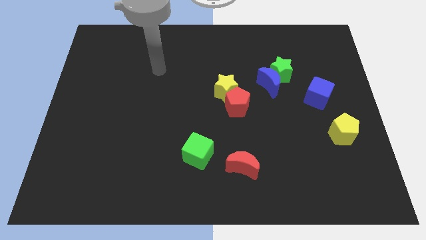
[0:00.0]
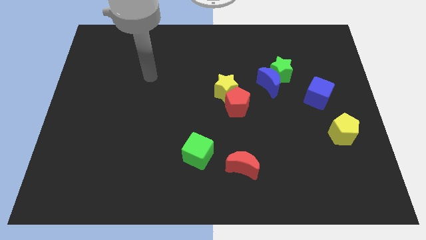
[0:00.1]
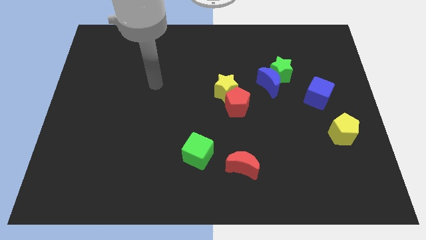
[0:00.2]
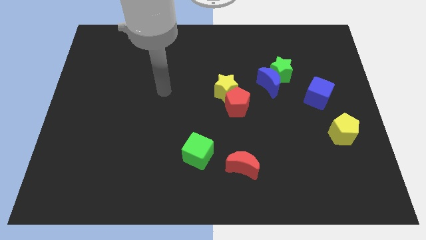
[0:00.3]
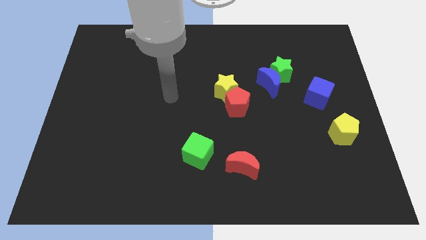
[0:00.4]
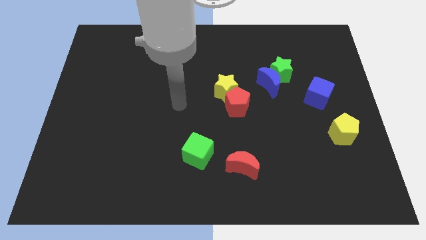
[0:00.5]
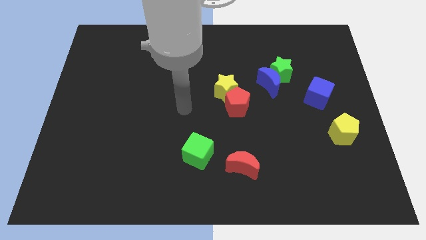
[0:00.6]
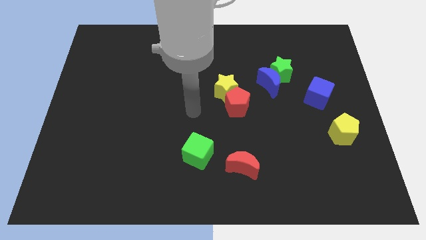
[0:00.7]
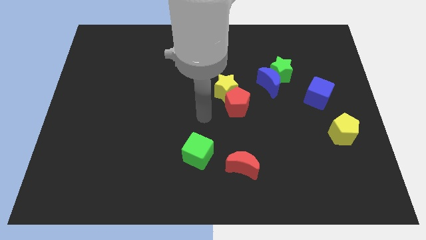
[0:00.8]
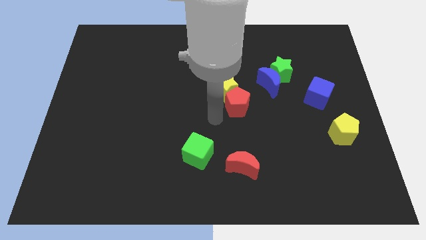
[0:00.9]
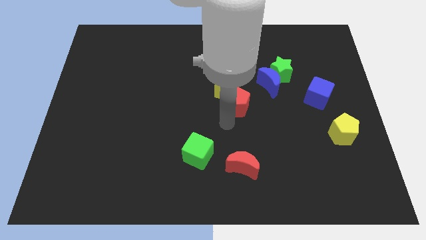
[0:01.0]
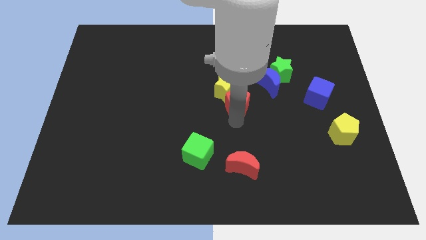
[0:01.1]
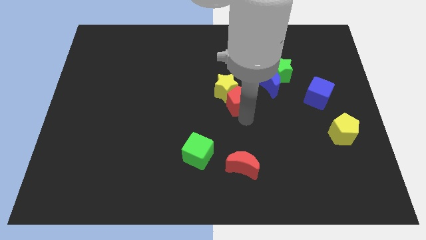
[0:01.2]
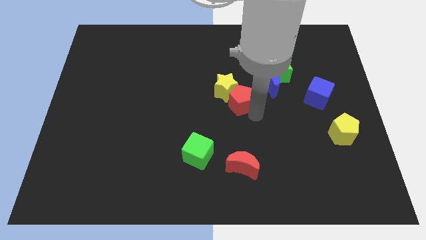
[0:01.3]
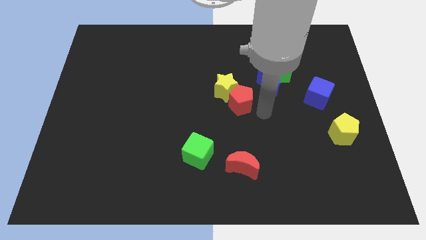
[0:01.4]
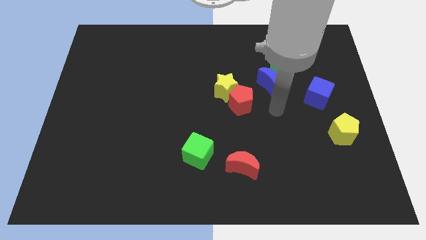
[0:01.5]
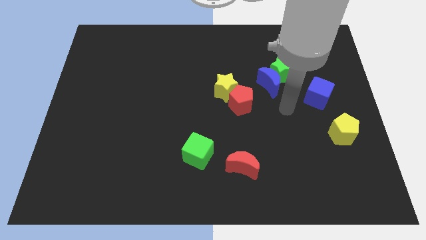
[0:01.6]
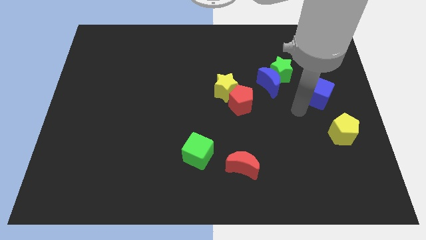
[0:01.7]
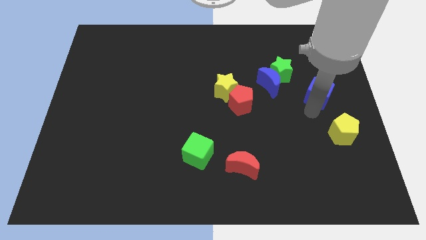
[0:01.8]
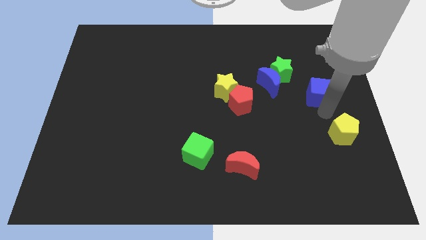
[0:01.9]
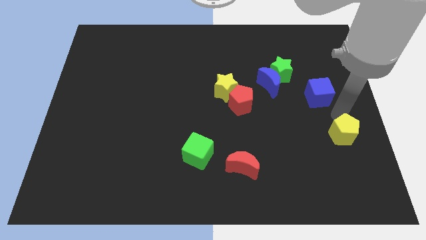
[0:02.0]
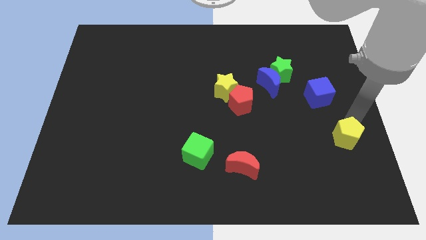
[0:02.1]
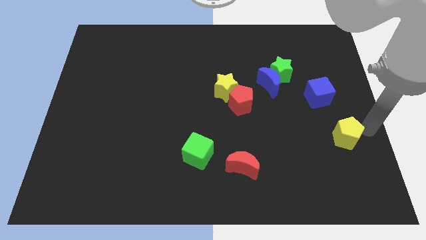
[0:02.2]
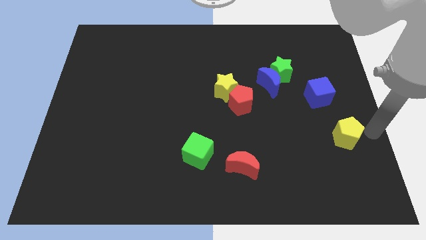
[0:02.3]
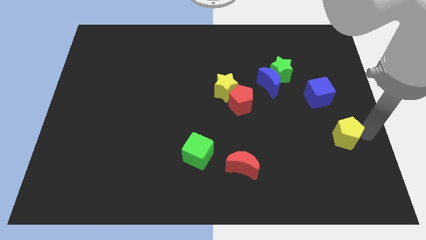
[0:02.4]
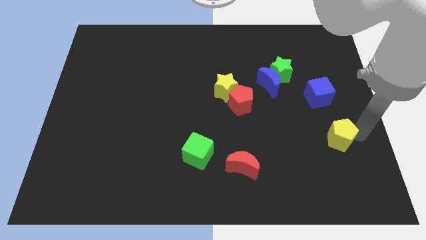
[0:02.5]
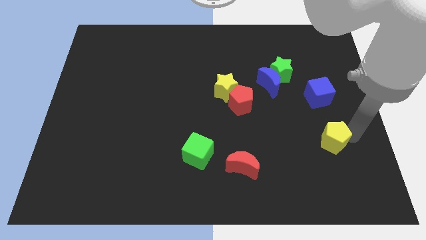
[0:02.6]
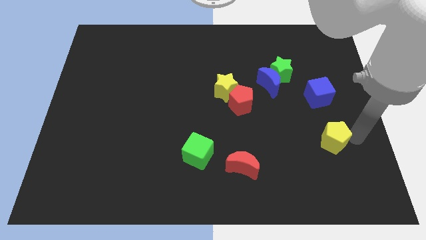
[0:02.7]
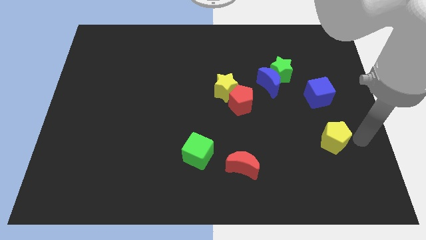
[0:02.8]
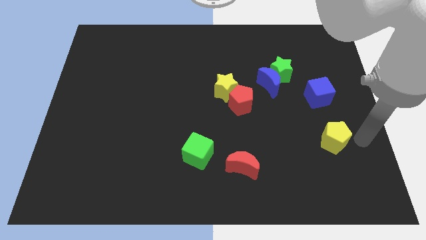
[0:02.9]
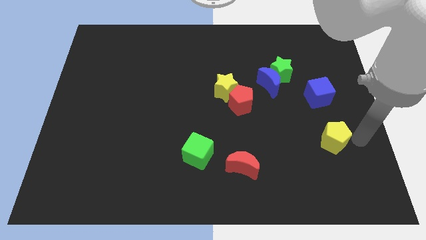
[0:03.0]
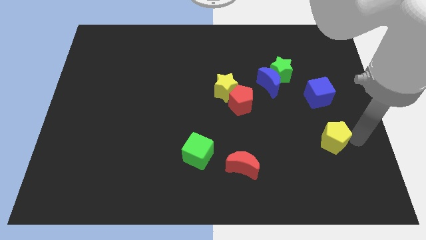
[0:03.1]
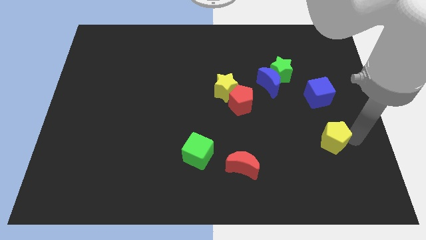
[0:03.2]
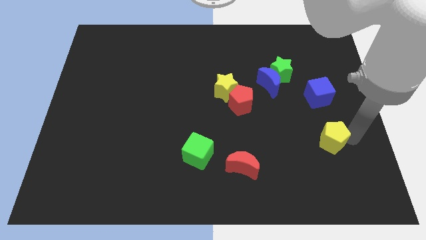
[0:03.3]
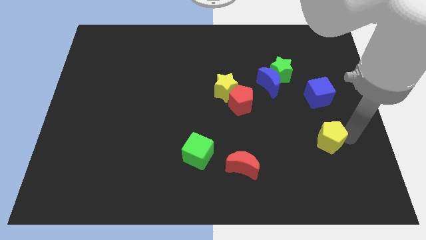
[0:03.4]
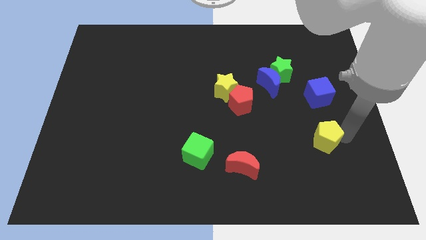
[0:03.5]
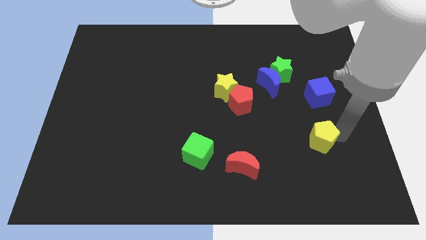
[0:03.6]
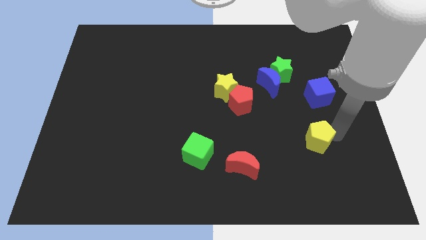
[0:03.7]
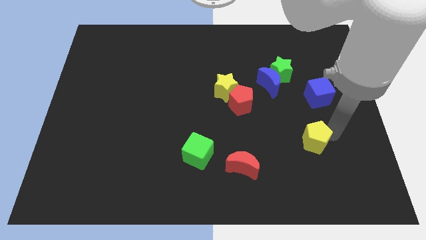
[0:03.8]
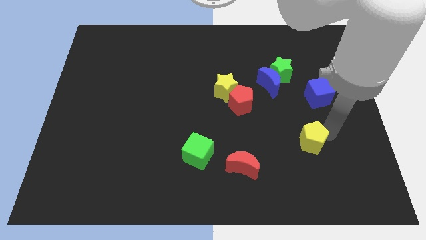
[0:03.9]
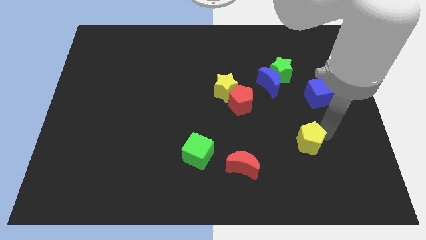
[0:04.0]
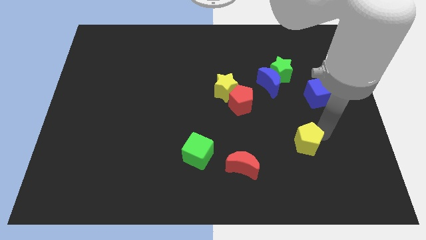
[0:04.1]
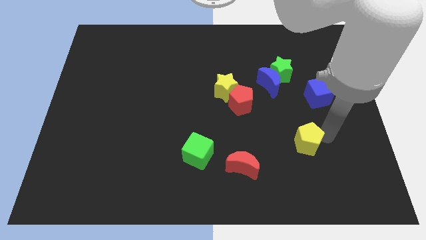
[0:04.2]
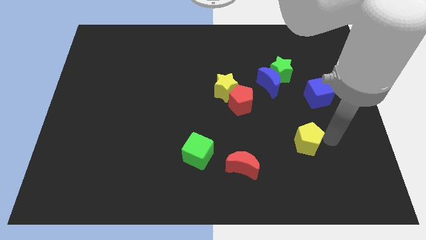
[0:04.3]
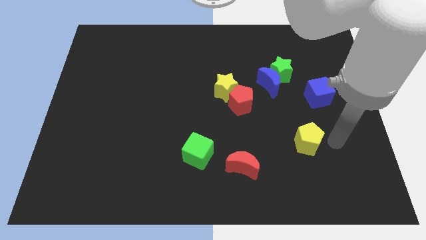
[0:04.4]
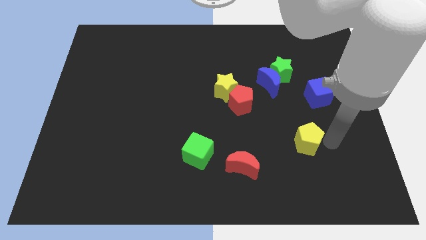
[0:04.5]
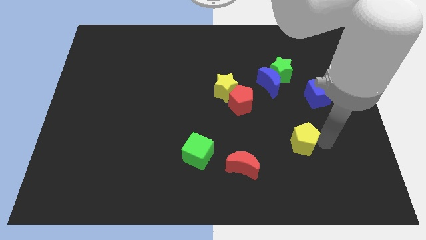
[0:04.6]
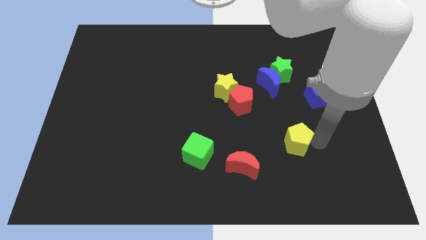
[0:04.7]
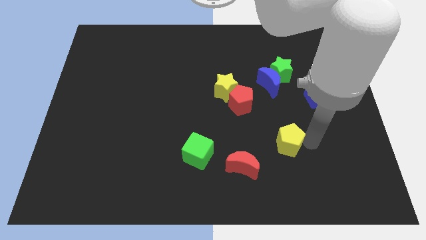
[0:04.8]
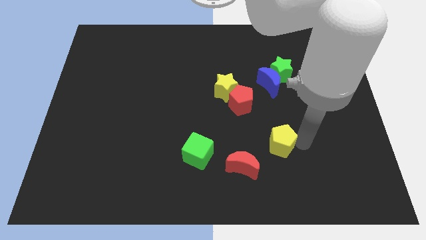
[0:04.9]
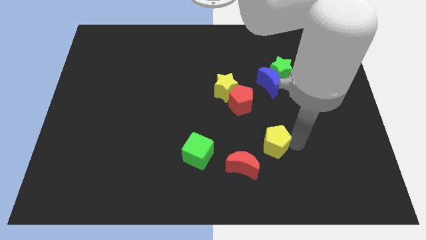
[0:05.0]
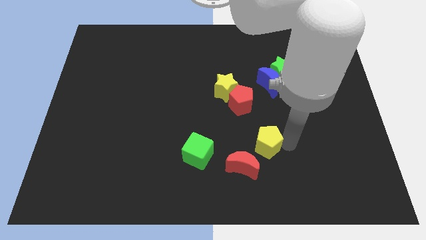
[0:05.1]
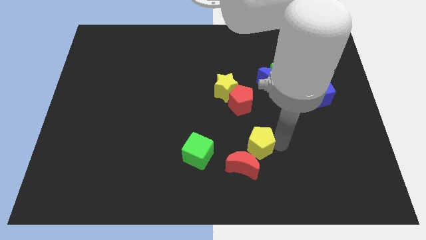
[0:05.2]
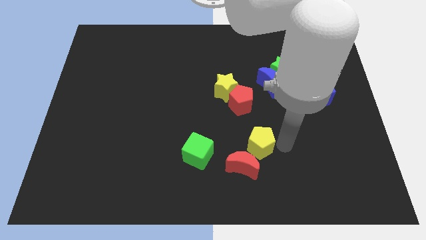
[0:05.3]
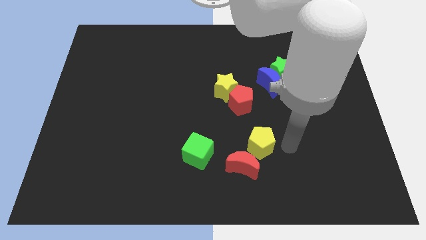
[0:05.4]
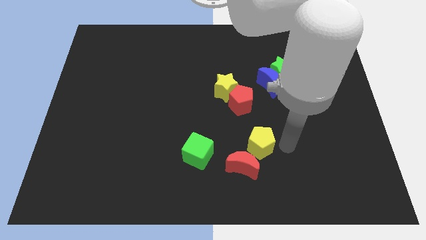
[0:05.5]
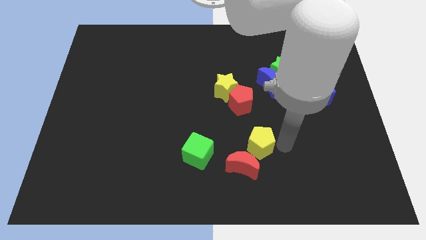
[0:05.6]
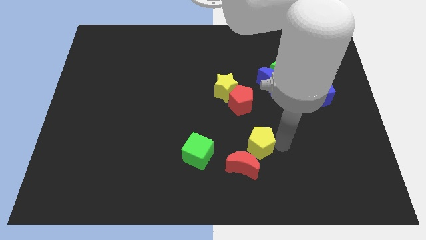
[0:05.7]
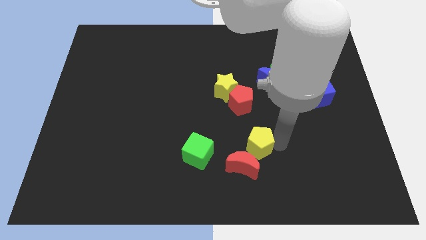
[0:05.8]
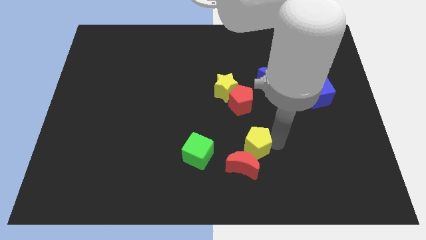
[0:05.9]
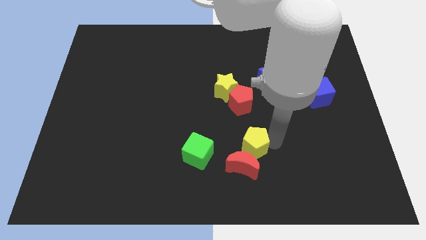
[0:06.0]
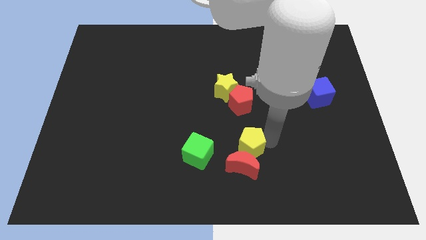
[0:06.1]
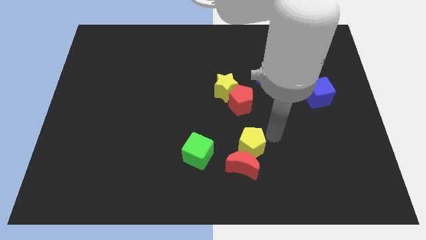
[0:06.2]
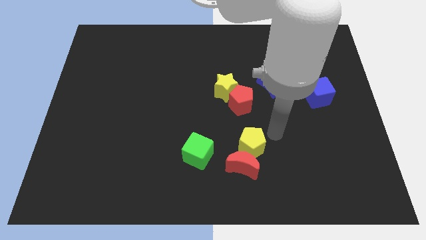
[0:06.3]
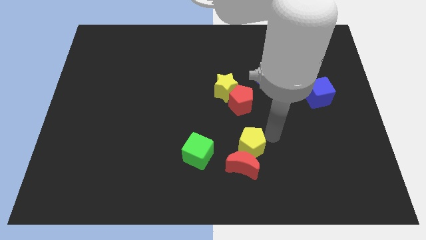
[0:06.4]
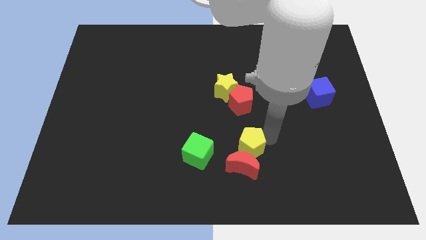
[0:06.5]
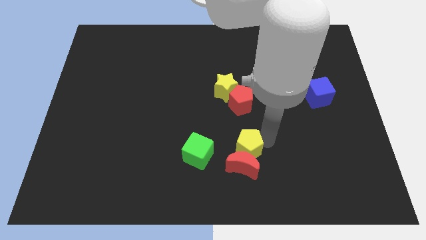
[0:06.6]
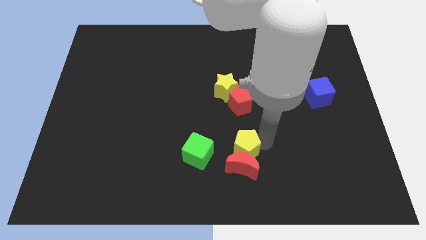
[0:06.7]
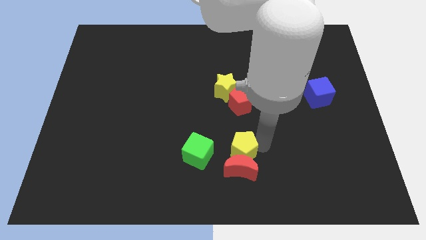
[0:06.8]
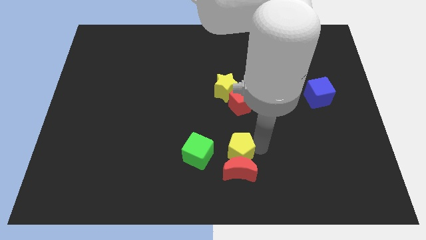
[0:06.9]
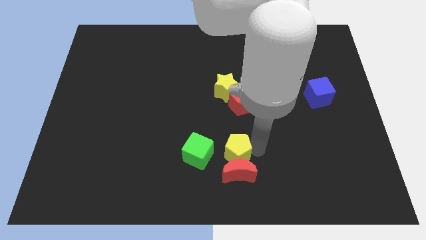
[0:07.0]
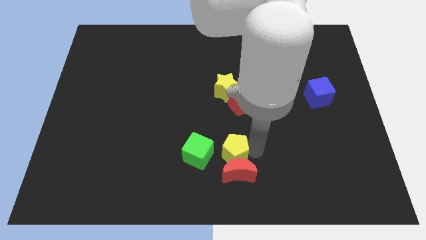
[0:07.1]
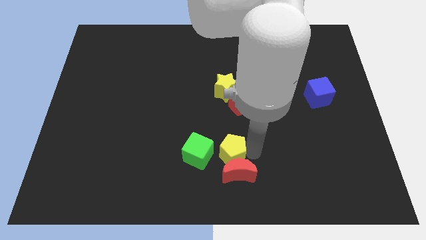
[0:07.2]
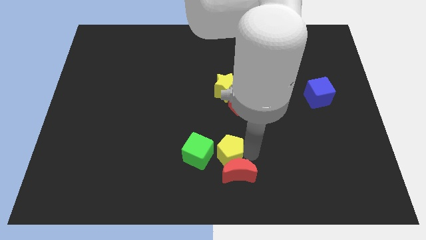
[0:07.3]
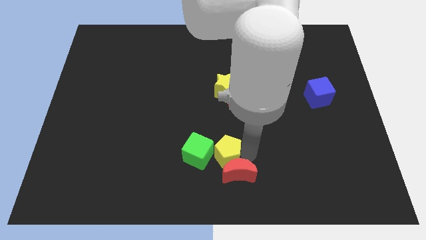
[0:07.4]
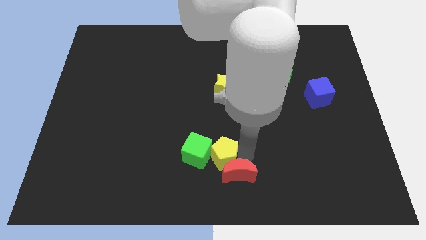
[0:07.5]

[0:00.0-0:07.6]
put the yellow pentagon left of the red moon
